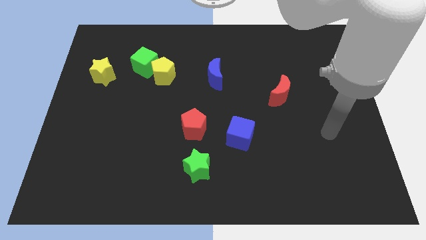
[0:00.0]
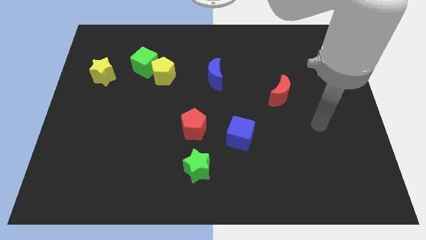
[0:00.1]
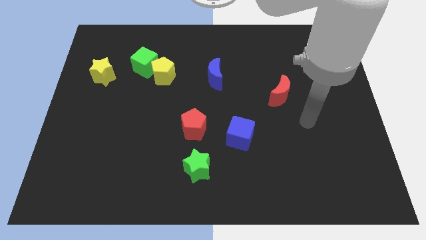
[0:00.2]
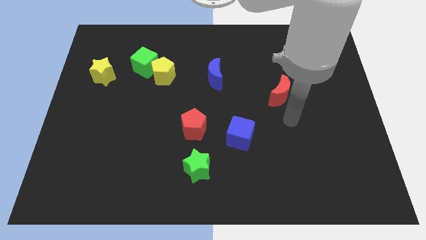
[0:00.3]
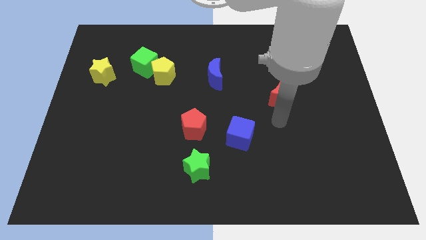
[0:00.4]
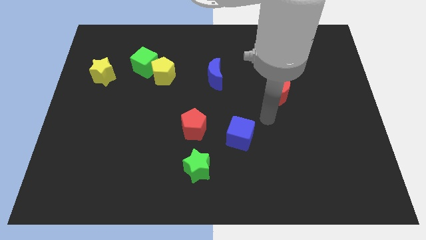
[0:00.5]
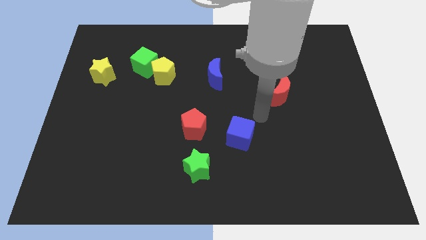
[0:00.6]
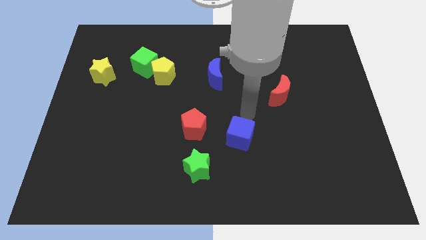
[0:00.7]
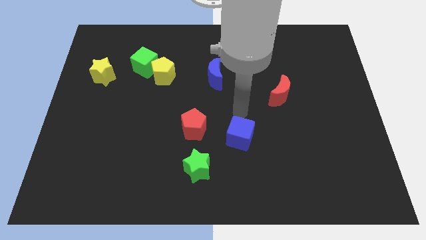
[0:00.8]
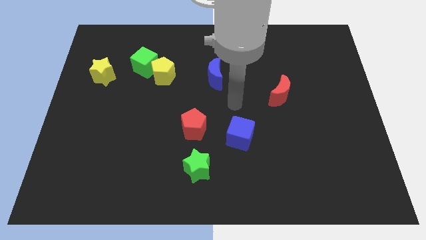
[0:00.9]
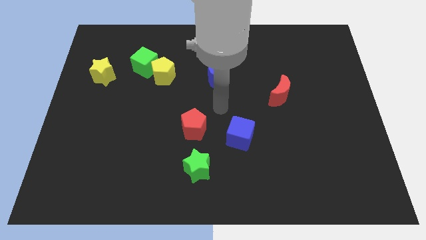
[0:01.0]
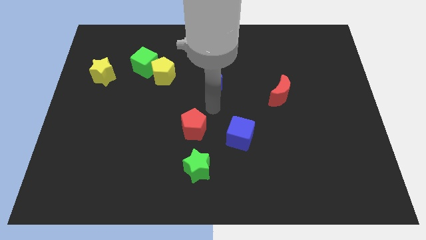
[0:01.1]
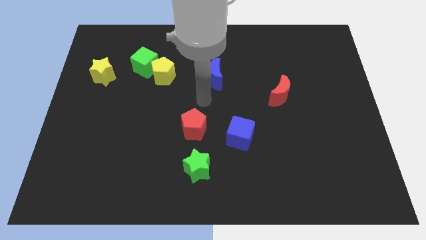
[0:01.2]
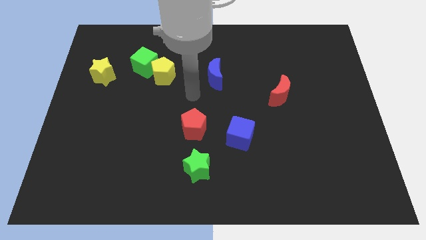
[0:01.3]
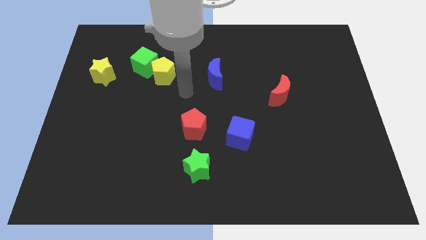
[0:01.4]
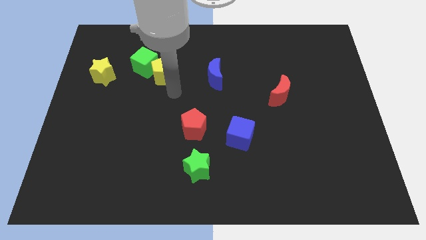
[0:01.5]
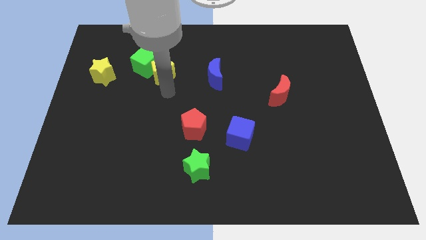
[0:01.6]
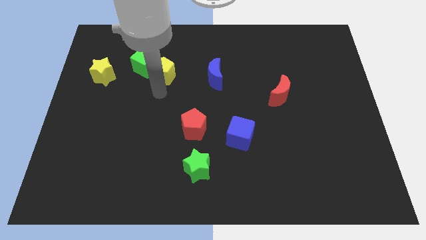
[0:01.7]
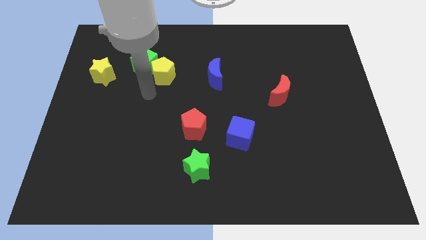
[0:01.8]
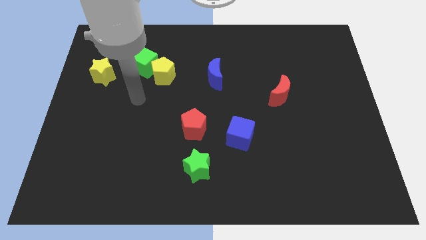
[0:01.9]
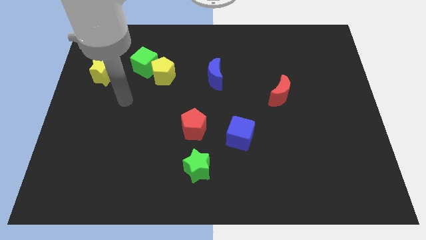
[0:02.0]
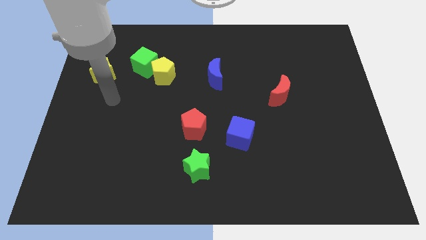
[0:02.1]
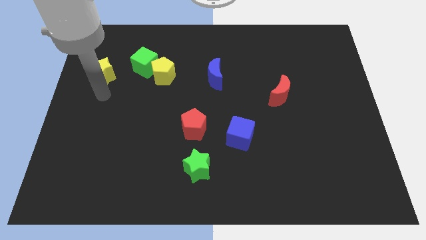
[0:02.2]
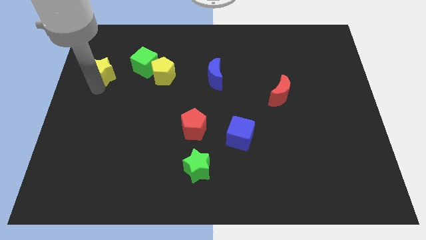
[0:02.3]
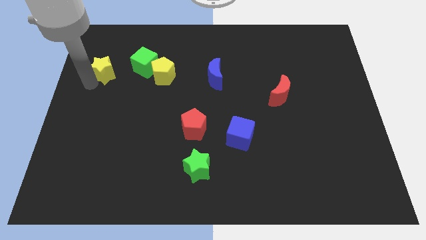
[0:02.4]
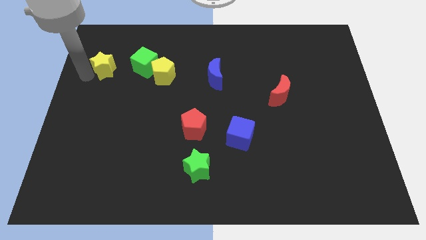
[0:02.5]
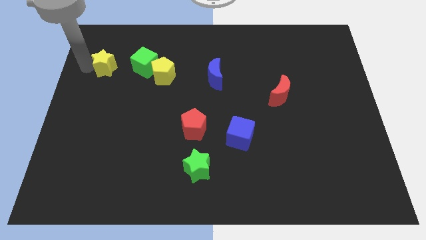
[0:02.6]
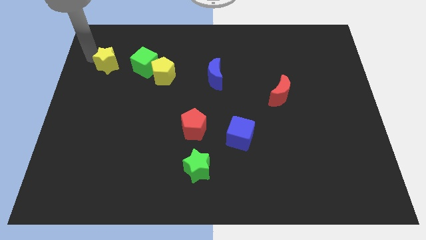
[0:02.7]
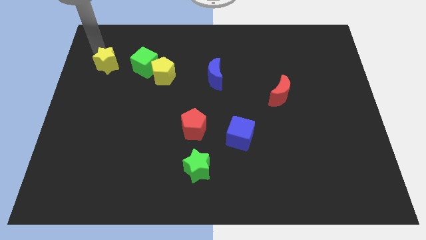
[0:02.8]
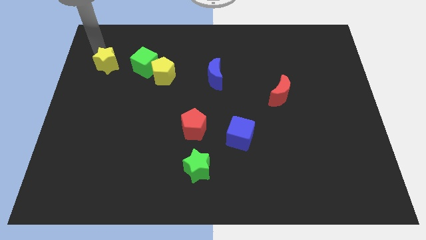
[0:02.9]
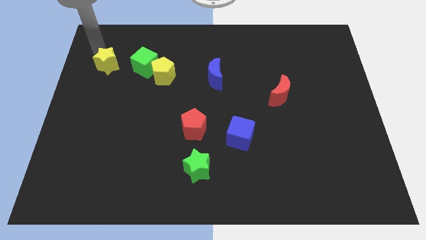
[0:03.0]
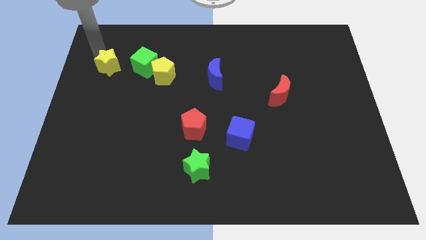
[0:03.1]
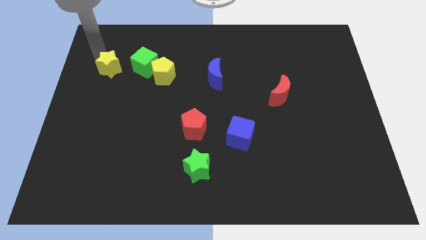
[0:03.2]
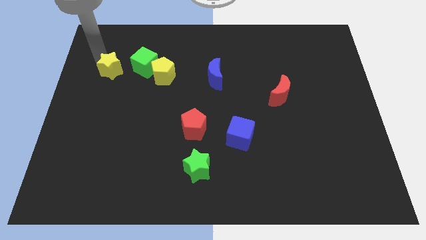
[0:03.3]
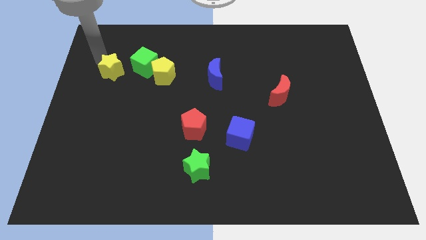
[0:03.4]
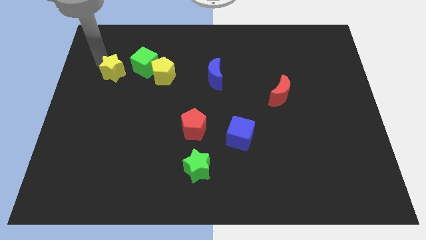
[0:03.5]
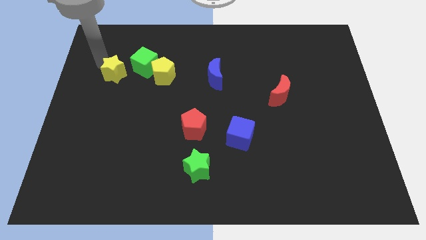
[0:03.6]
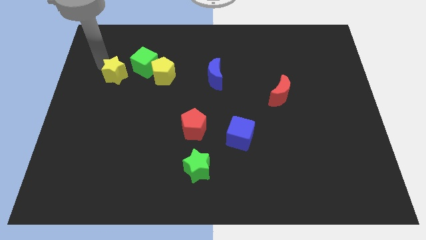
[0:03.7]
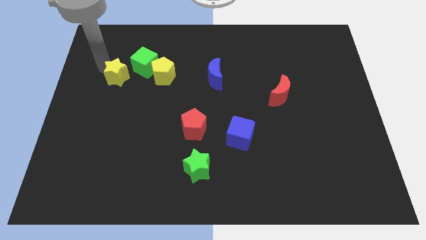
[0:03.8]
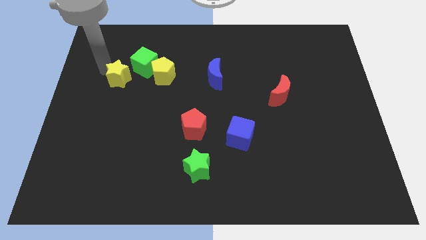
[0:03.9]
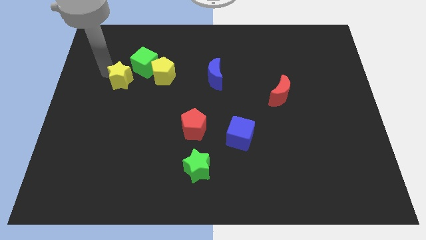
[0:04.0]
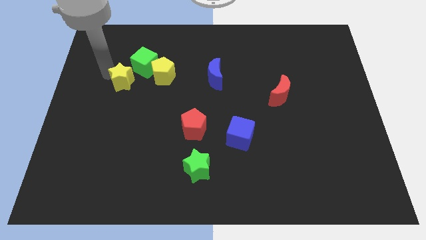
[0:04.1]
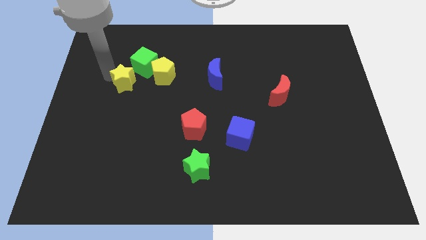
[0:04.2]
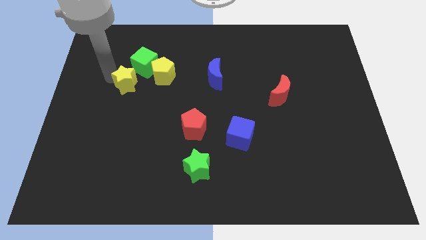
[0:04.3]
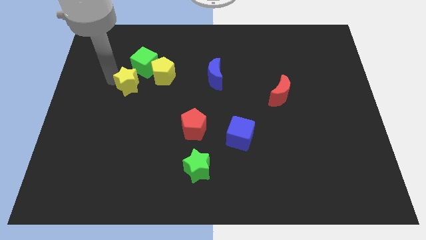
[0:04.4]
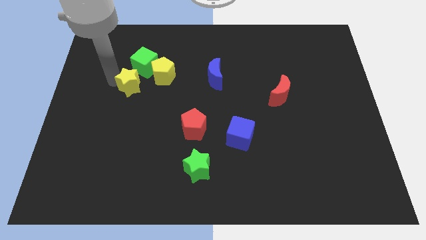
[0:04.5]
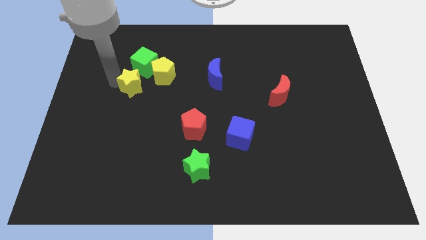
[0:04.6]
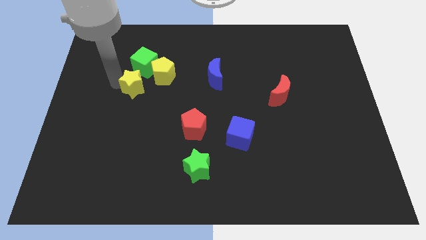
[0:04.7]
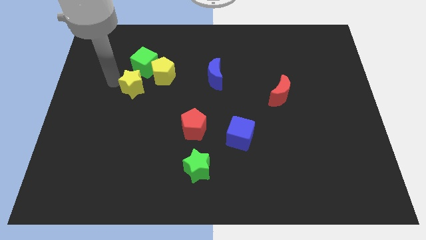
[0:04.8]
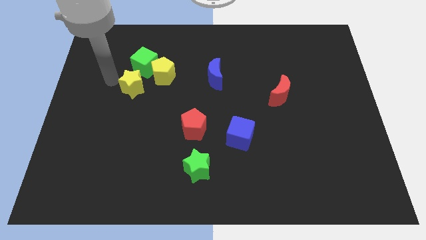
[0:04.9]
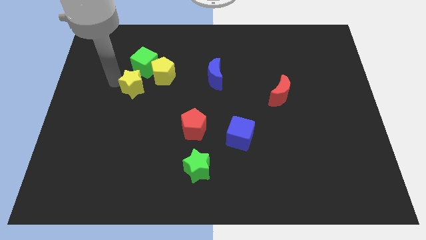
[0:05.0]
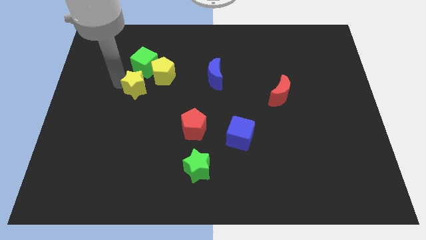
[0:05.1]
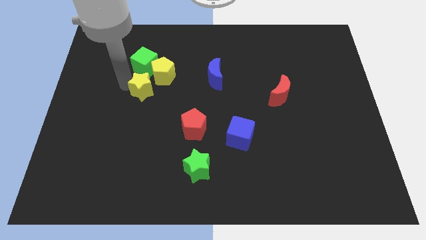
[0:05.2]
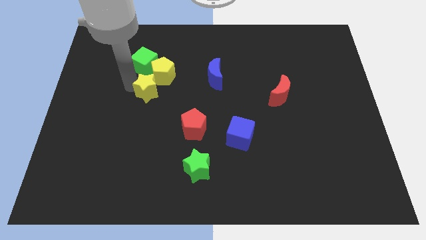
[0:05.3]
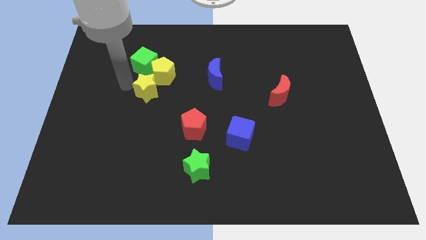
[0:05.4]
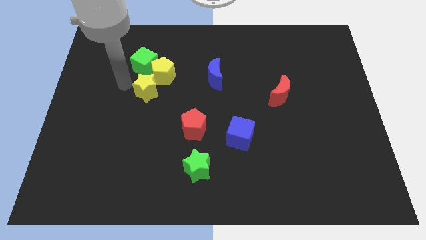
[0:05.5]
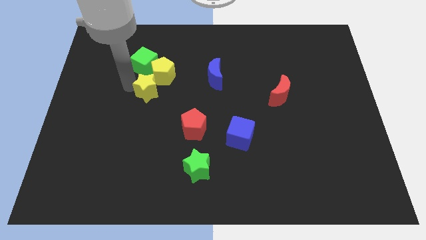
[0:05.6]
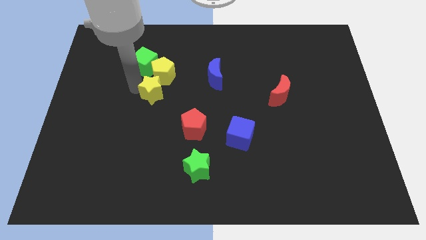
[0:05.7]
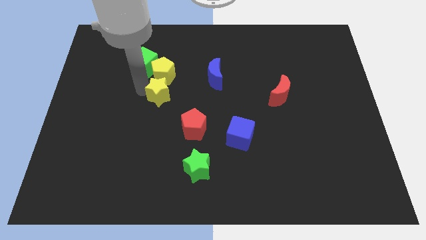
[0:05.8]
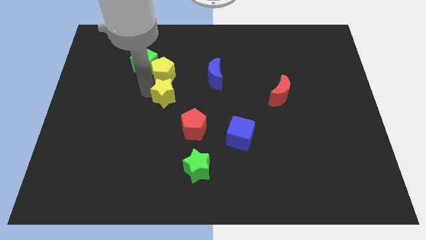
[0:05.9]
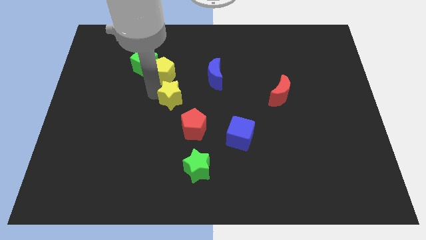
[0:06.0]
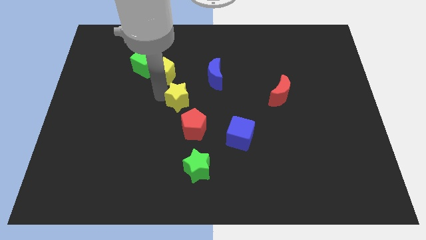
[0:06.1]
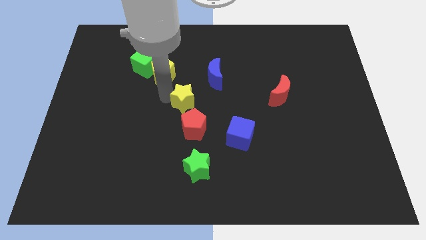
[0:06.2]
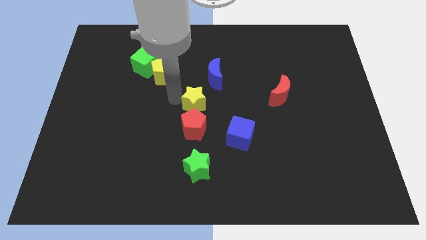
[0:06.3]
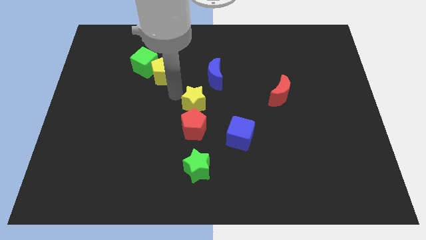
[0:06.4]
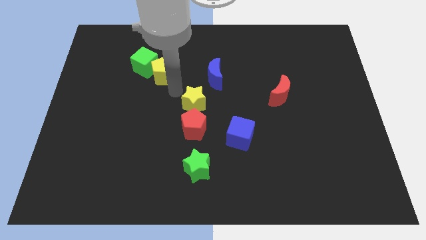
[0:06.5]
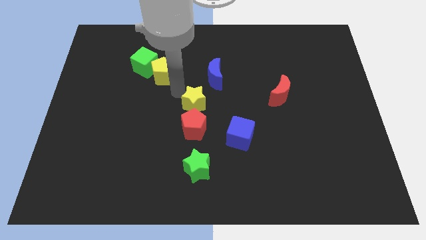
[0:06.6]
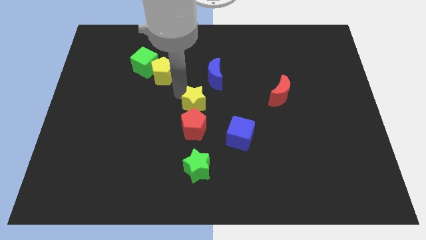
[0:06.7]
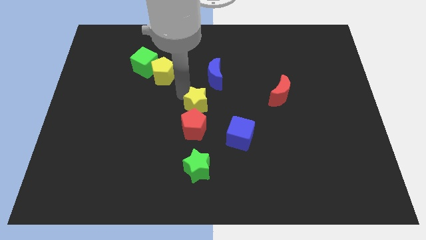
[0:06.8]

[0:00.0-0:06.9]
slide the yellow star to the top left side of the blue cube
